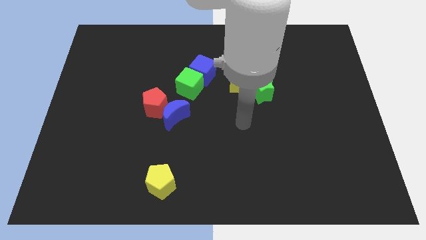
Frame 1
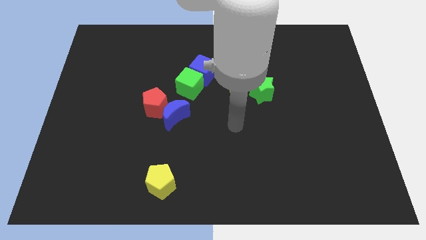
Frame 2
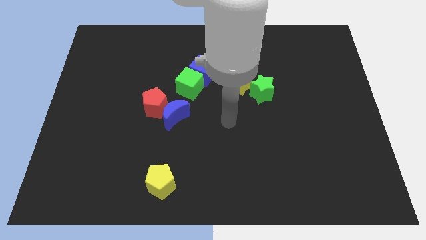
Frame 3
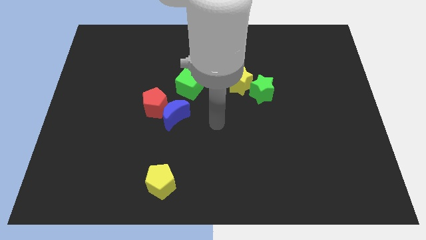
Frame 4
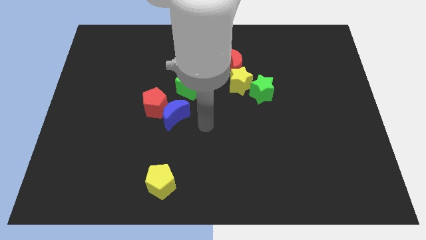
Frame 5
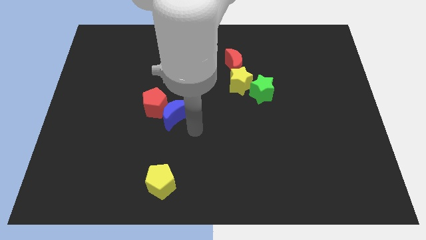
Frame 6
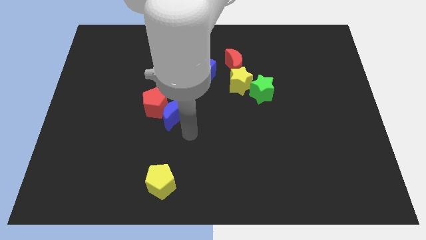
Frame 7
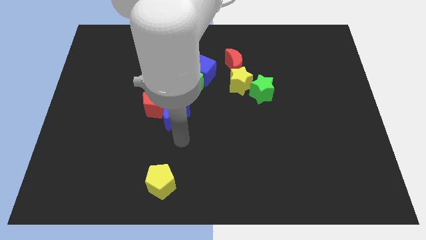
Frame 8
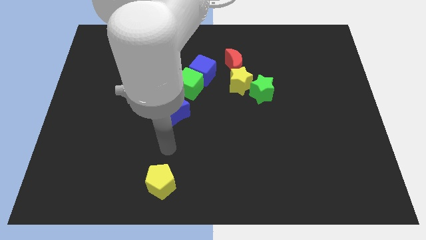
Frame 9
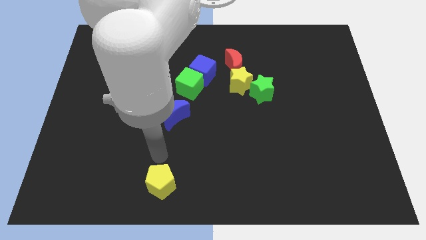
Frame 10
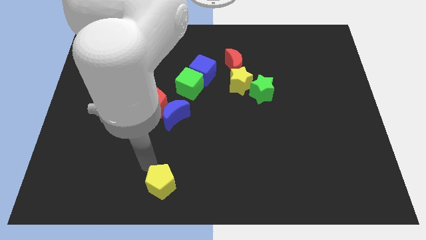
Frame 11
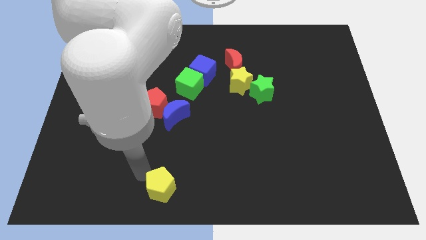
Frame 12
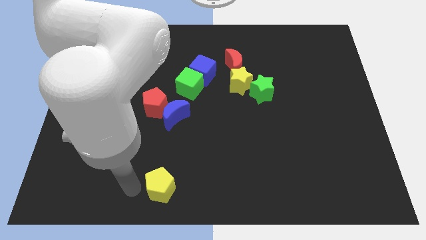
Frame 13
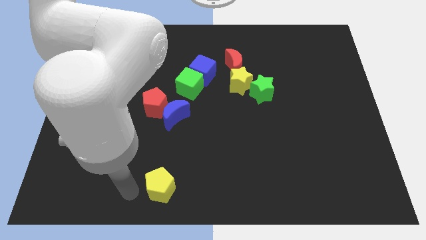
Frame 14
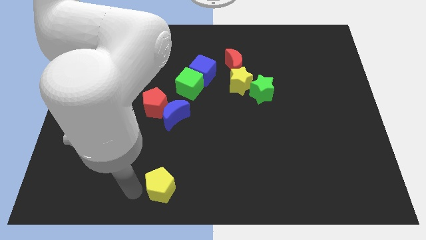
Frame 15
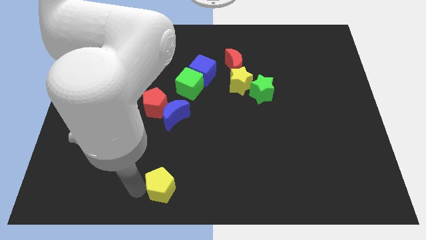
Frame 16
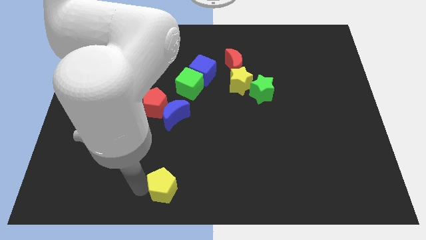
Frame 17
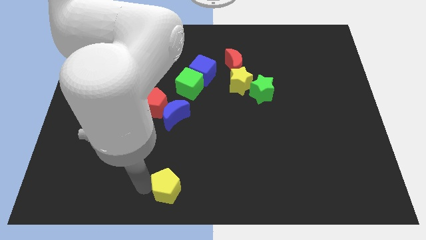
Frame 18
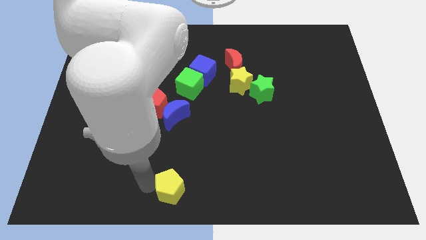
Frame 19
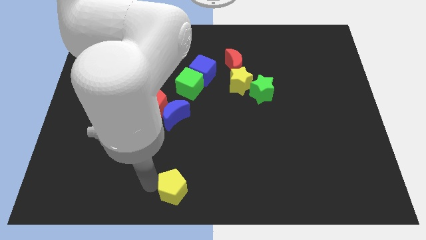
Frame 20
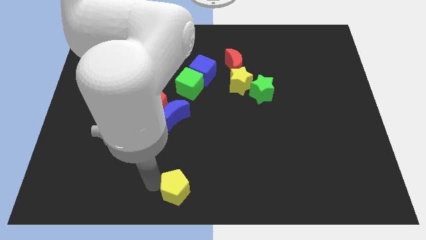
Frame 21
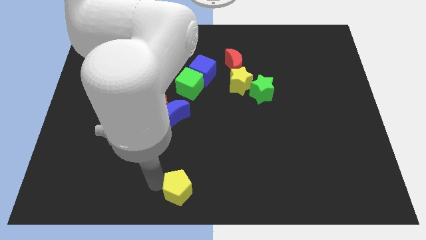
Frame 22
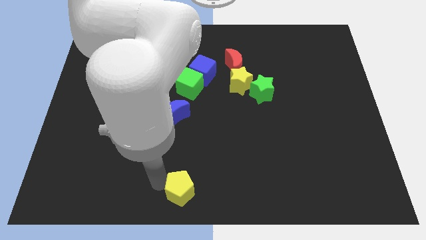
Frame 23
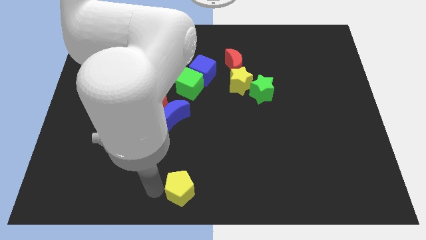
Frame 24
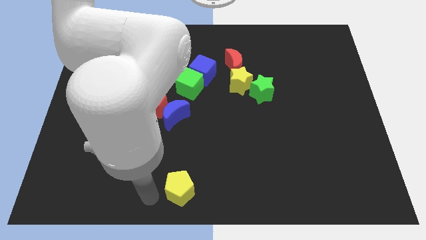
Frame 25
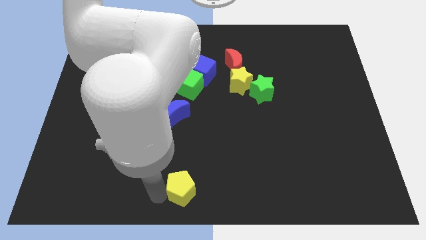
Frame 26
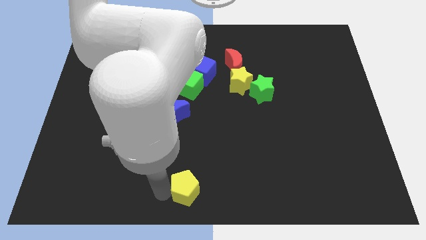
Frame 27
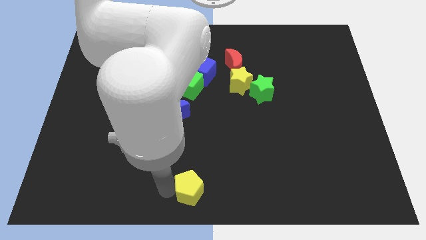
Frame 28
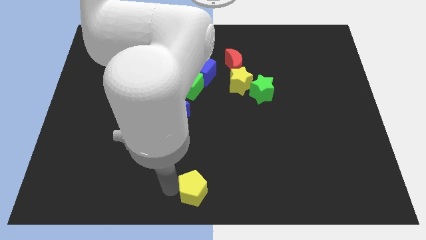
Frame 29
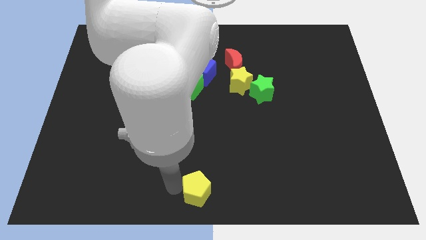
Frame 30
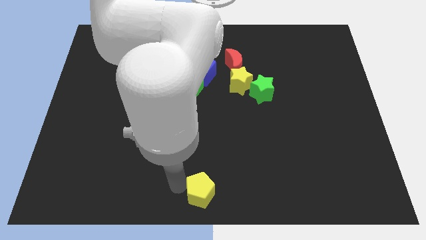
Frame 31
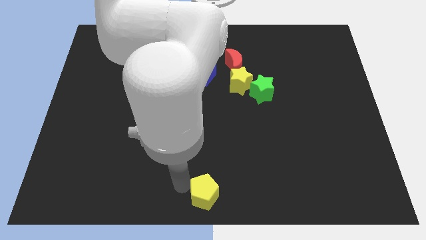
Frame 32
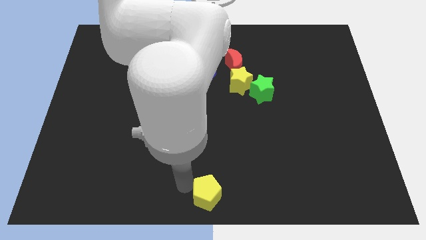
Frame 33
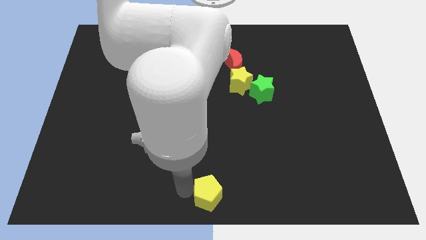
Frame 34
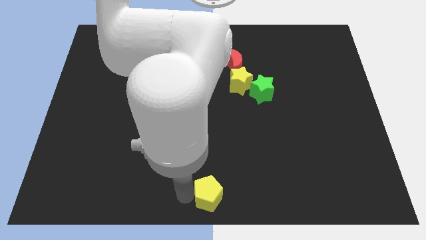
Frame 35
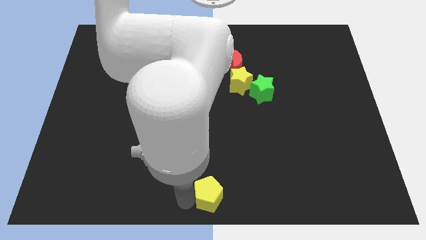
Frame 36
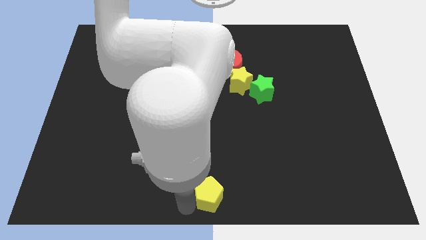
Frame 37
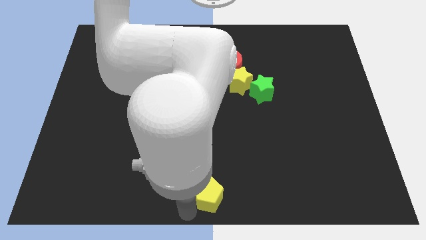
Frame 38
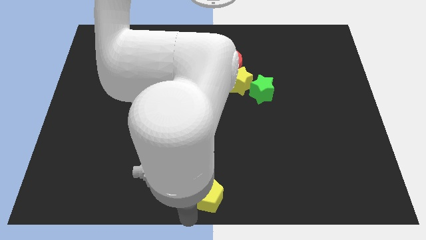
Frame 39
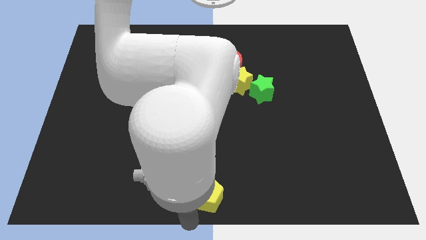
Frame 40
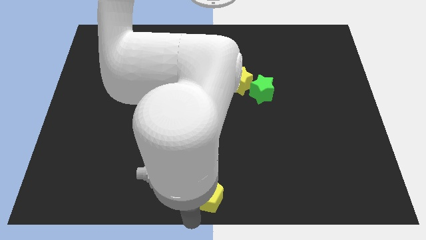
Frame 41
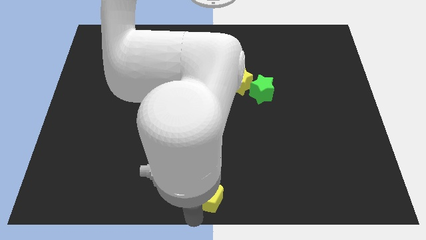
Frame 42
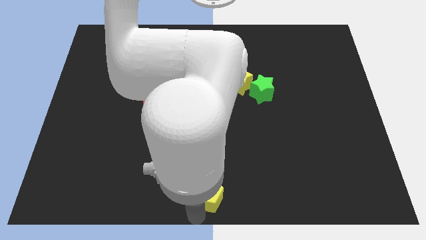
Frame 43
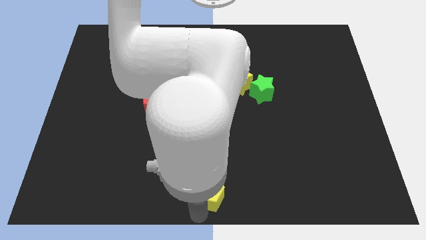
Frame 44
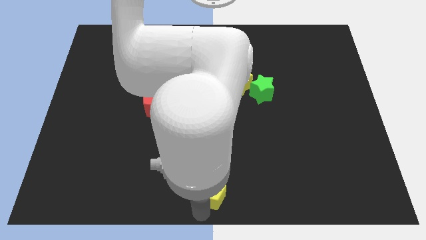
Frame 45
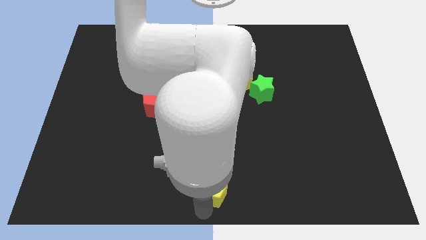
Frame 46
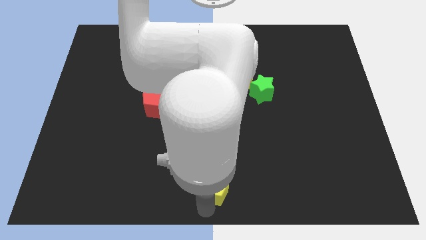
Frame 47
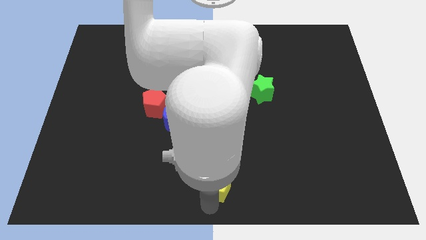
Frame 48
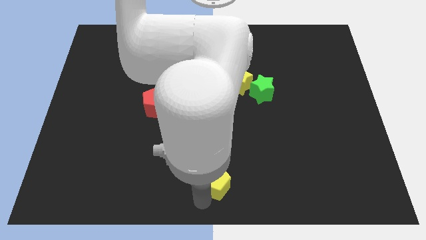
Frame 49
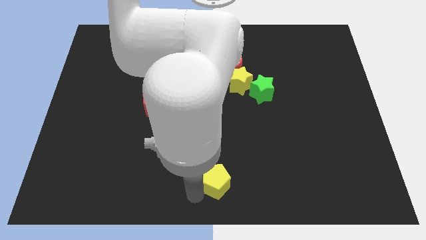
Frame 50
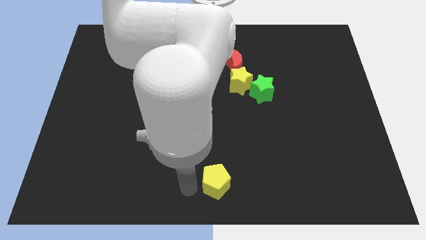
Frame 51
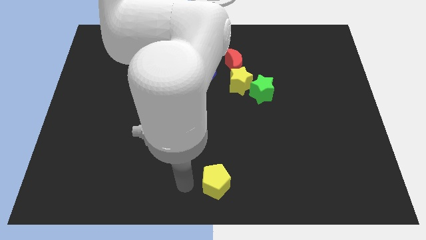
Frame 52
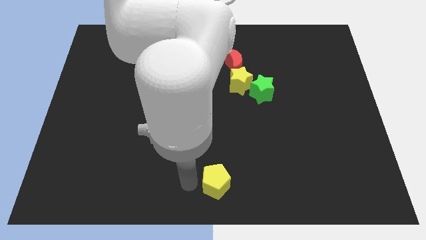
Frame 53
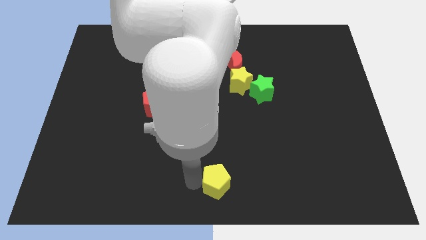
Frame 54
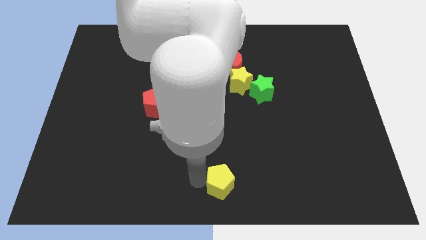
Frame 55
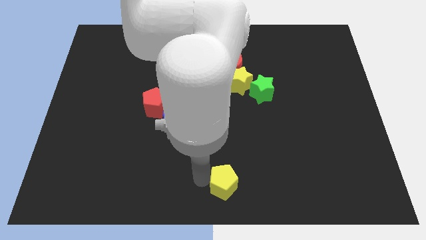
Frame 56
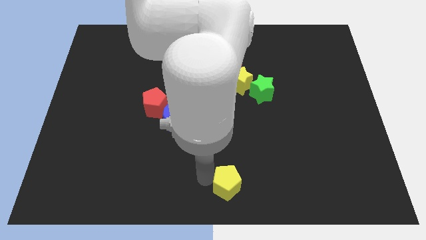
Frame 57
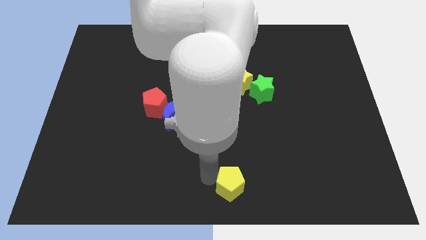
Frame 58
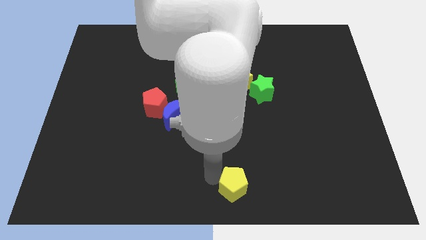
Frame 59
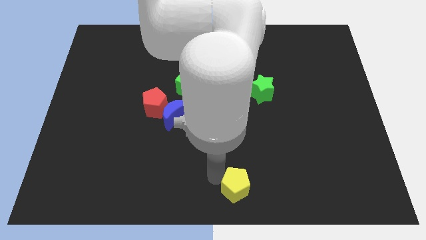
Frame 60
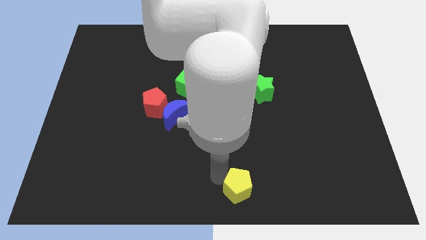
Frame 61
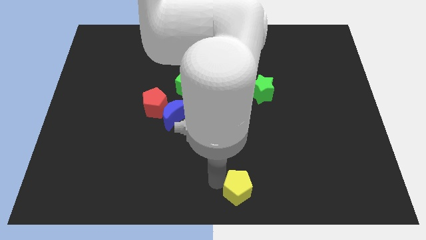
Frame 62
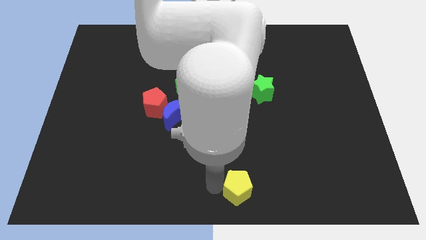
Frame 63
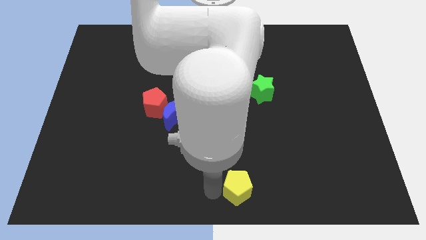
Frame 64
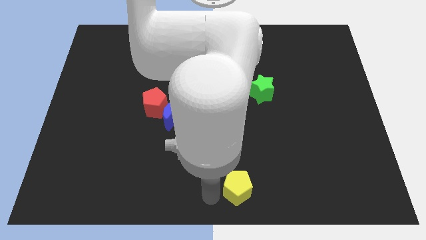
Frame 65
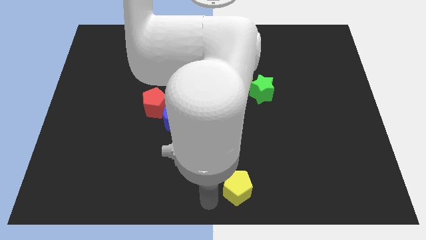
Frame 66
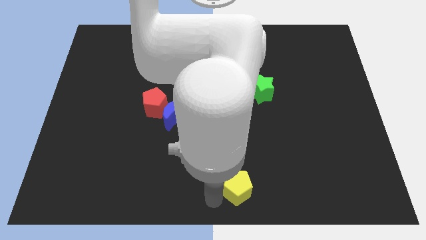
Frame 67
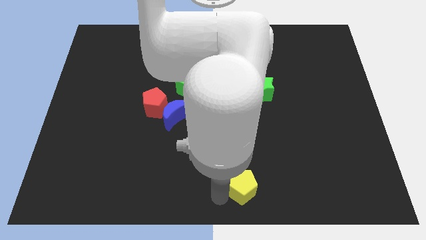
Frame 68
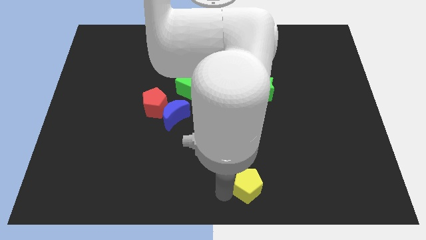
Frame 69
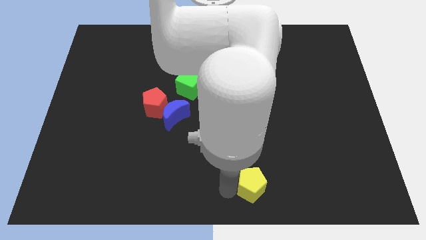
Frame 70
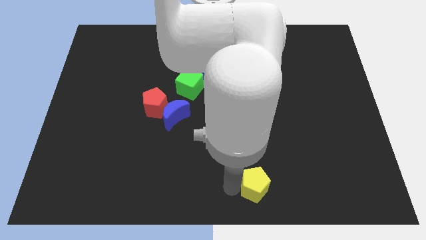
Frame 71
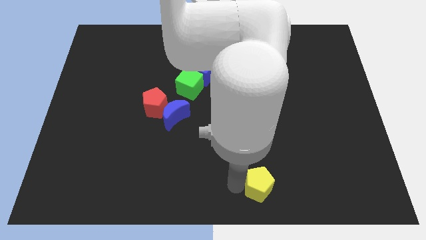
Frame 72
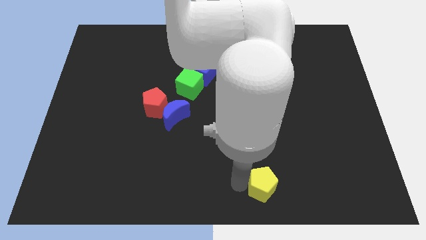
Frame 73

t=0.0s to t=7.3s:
push the yellow pentagon right

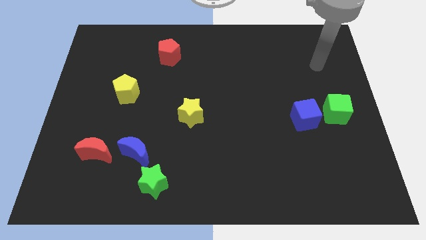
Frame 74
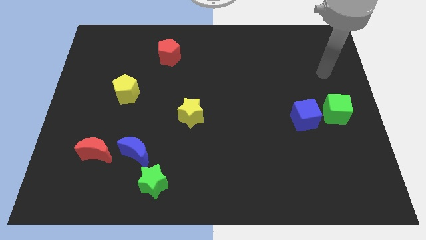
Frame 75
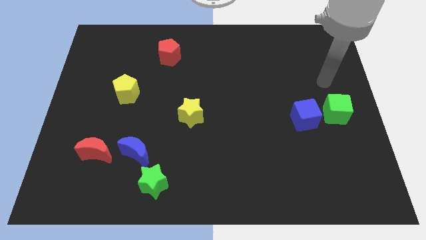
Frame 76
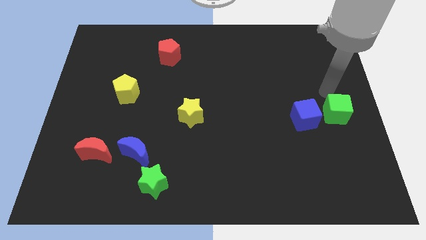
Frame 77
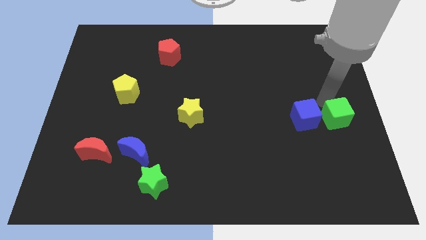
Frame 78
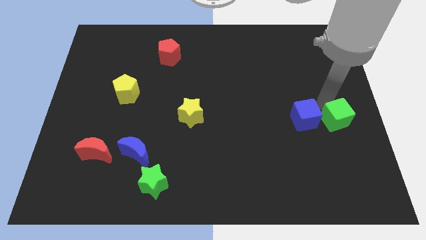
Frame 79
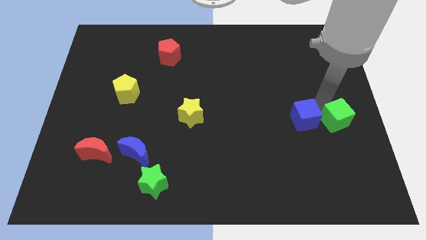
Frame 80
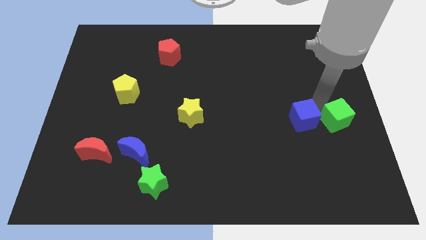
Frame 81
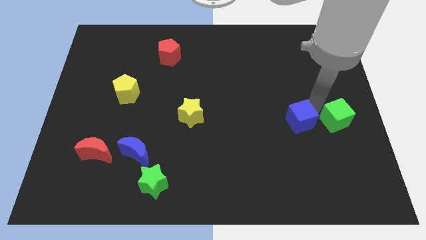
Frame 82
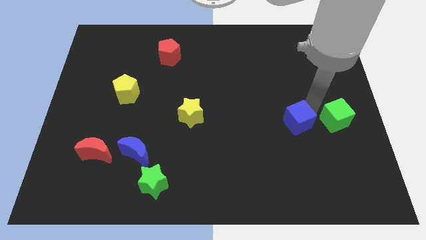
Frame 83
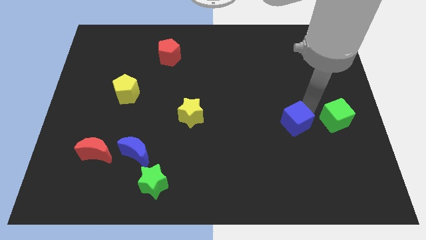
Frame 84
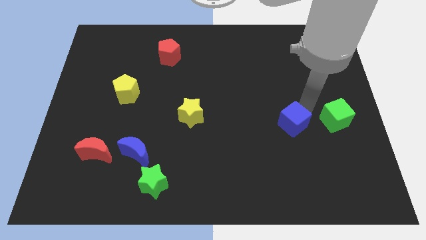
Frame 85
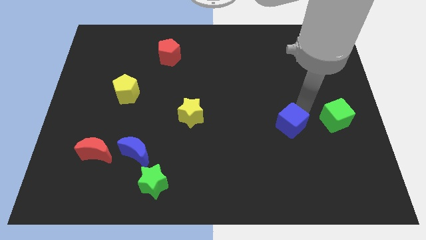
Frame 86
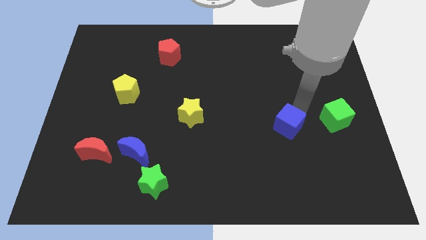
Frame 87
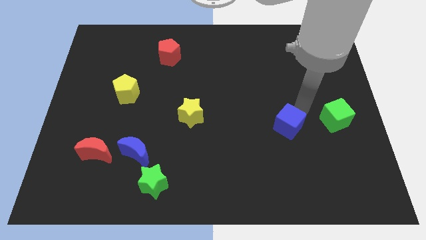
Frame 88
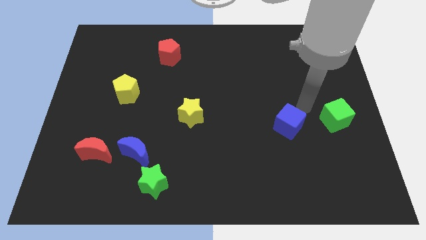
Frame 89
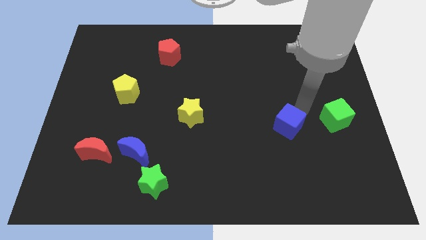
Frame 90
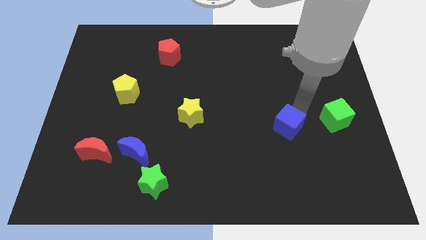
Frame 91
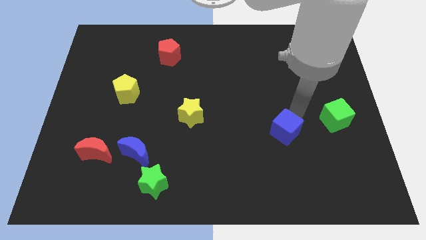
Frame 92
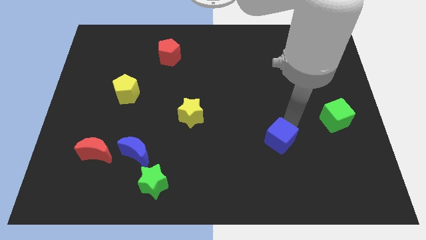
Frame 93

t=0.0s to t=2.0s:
slightly slide the blue cube down and then to the left
